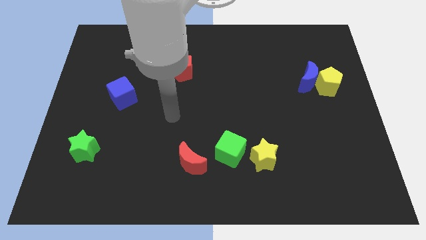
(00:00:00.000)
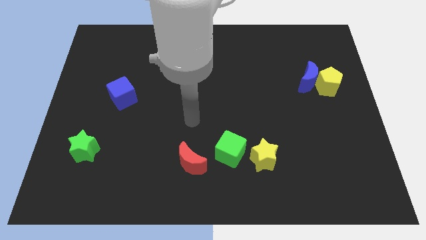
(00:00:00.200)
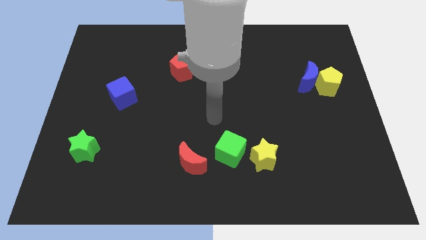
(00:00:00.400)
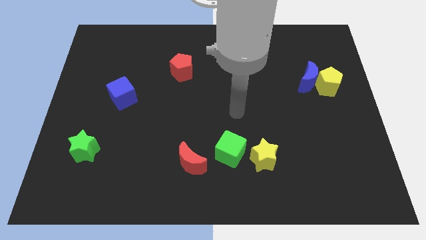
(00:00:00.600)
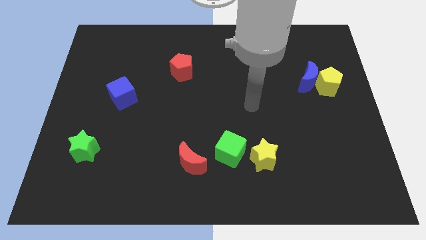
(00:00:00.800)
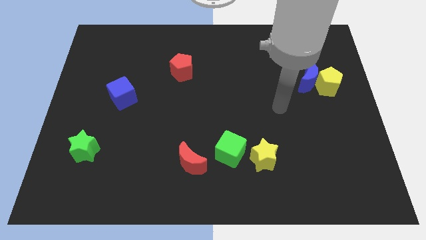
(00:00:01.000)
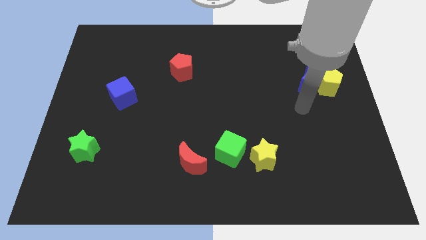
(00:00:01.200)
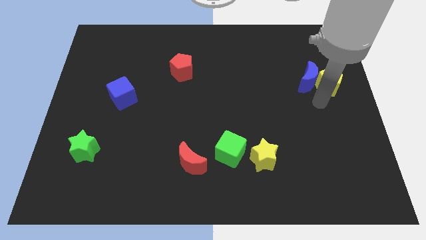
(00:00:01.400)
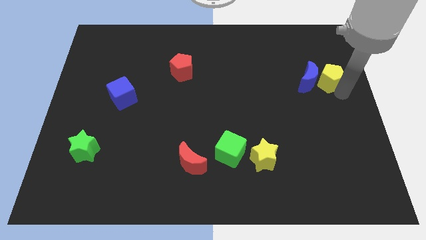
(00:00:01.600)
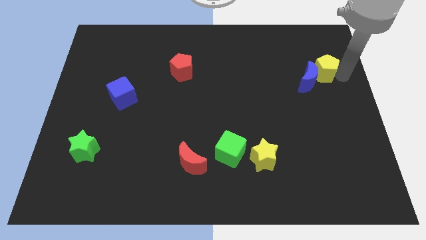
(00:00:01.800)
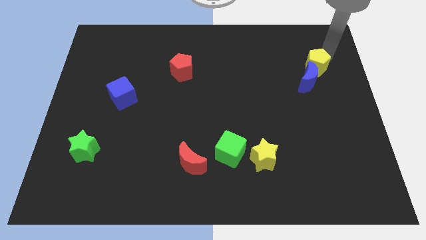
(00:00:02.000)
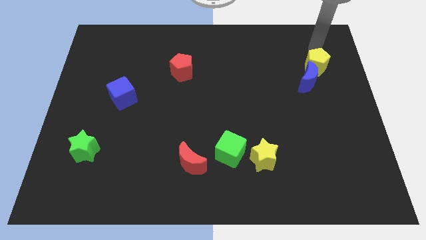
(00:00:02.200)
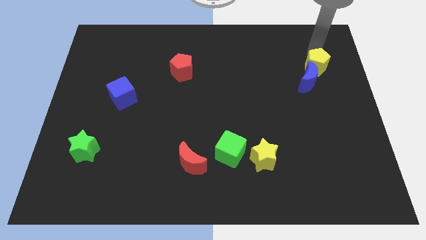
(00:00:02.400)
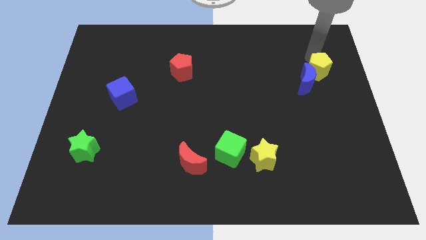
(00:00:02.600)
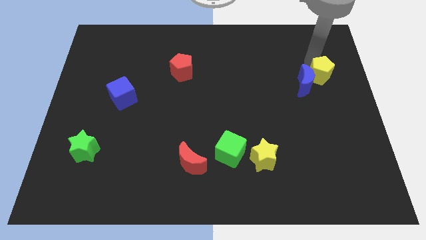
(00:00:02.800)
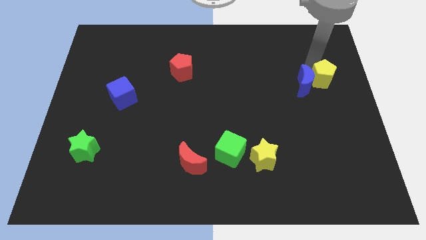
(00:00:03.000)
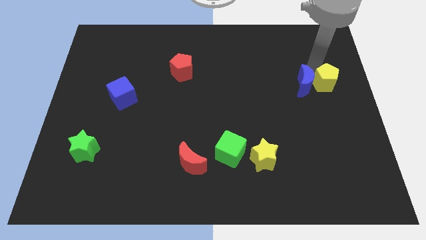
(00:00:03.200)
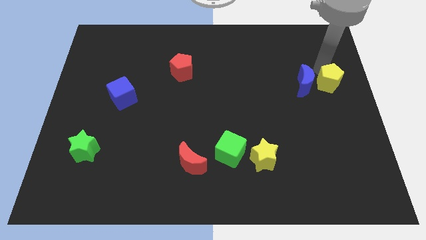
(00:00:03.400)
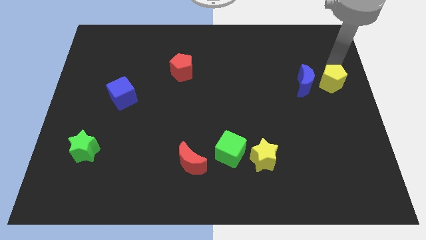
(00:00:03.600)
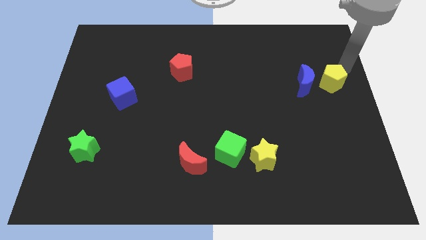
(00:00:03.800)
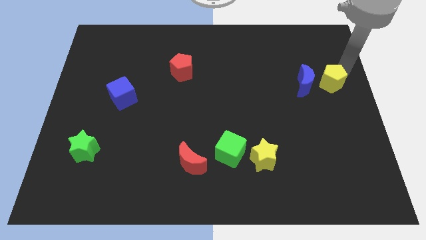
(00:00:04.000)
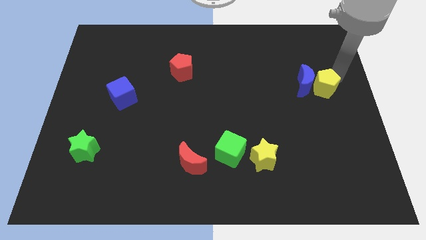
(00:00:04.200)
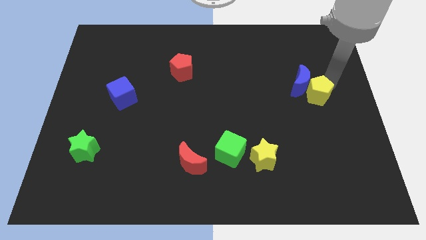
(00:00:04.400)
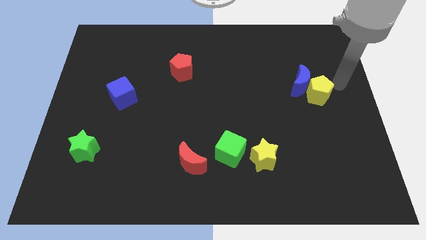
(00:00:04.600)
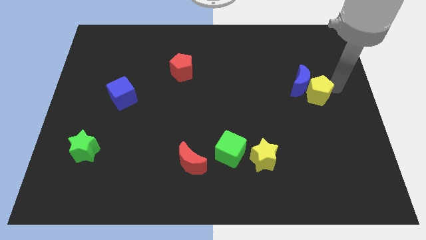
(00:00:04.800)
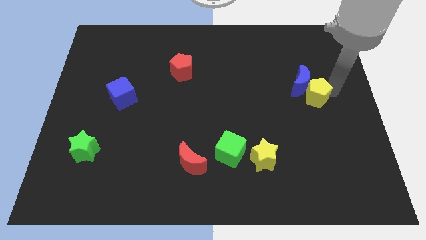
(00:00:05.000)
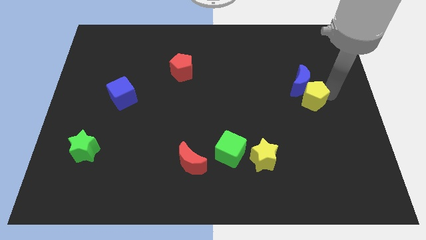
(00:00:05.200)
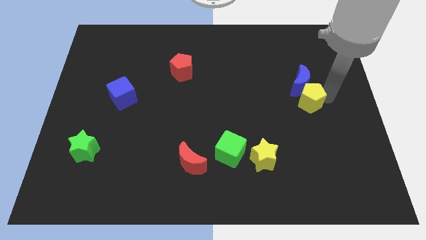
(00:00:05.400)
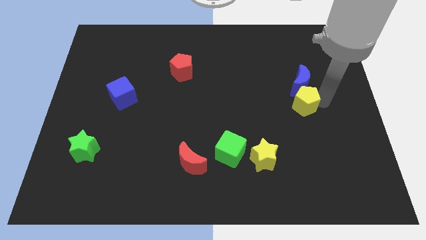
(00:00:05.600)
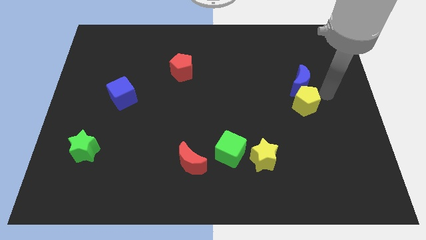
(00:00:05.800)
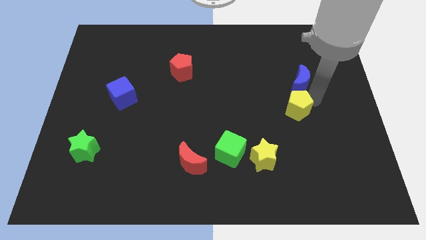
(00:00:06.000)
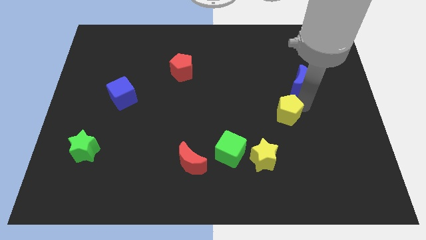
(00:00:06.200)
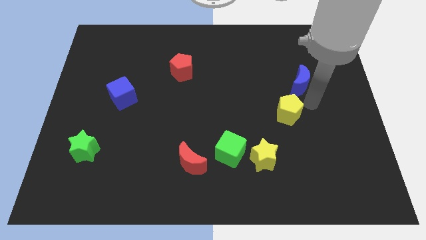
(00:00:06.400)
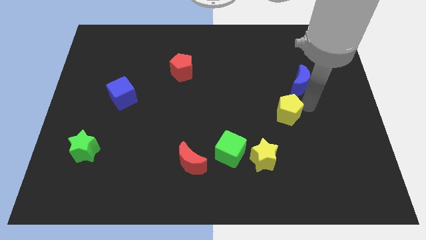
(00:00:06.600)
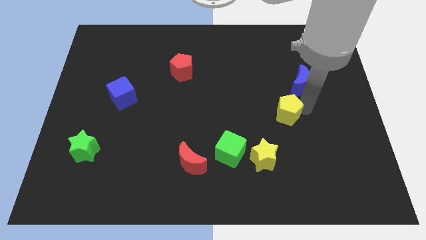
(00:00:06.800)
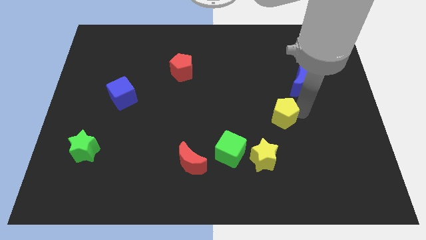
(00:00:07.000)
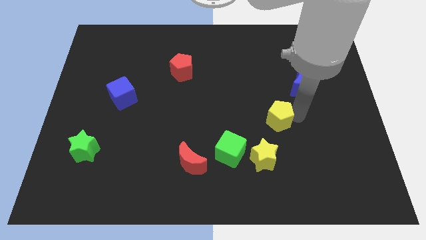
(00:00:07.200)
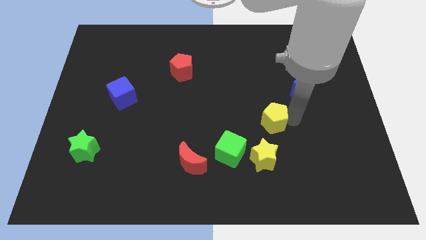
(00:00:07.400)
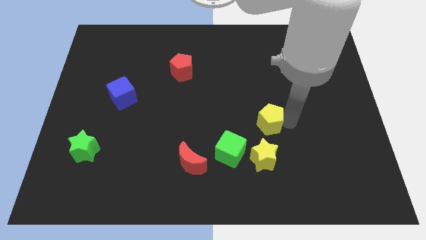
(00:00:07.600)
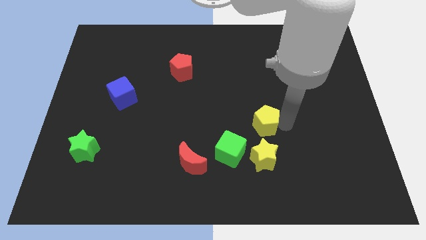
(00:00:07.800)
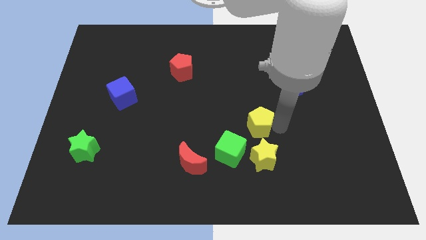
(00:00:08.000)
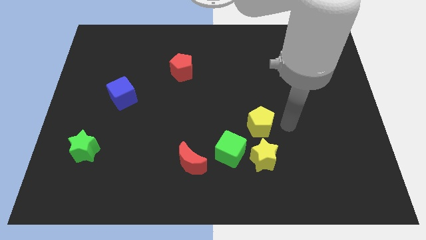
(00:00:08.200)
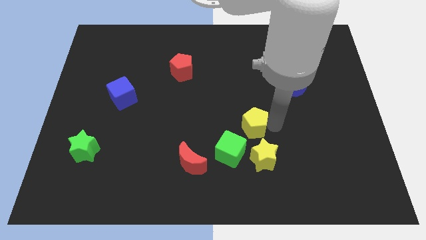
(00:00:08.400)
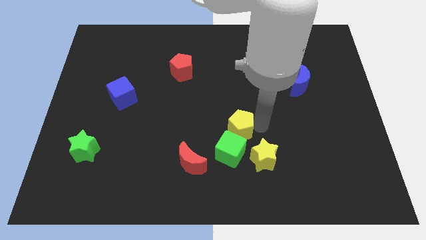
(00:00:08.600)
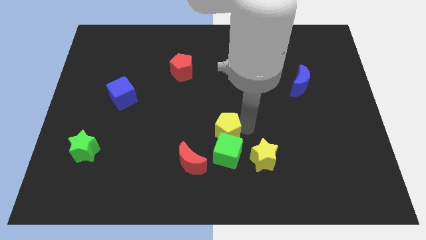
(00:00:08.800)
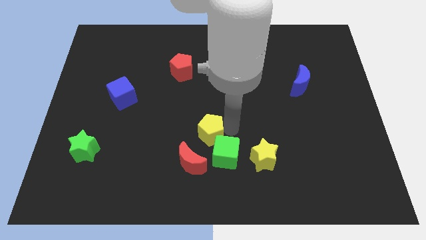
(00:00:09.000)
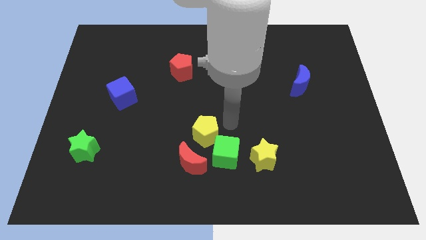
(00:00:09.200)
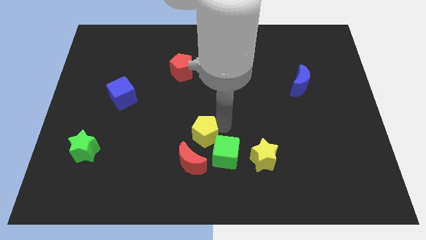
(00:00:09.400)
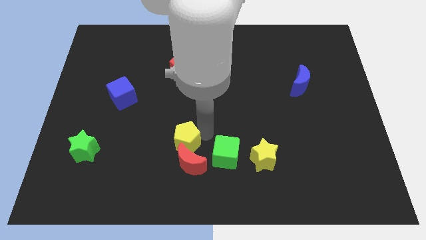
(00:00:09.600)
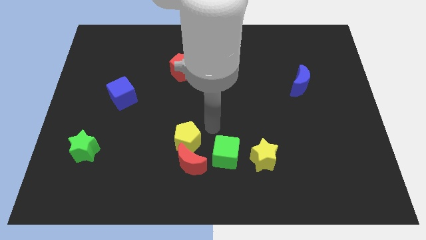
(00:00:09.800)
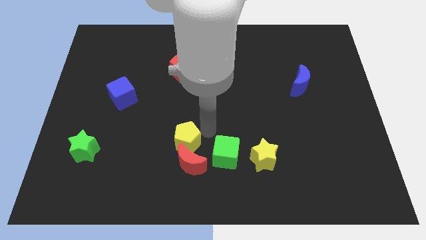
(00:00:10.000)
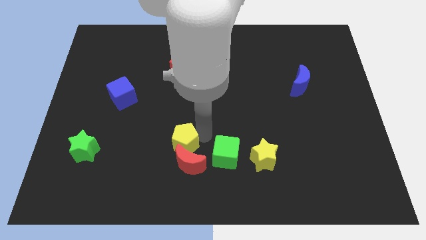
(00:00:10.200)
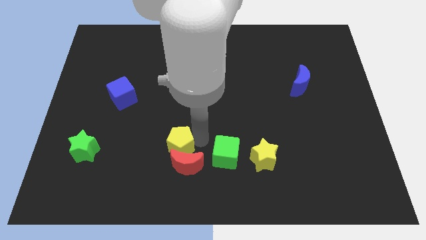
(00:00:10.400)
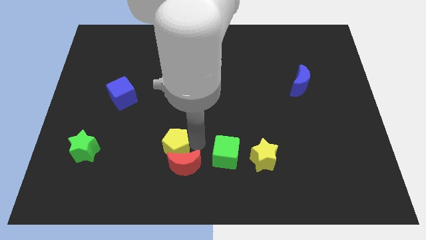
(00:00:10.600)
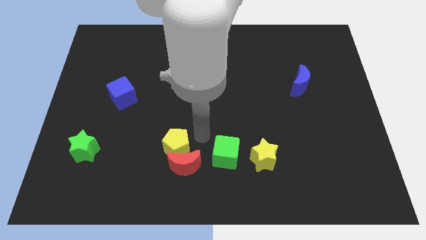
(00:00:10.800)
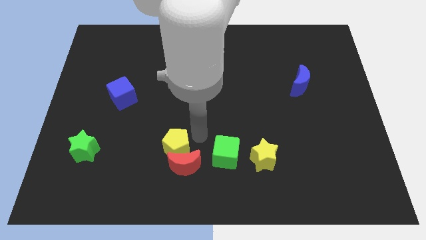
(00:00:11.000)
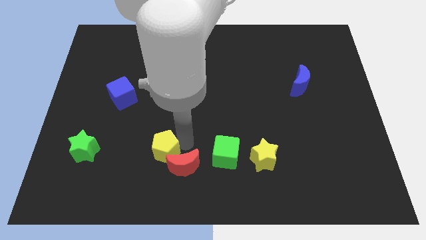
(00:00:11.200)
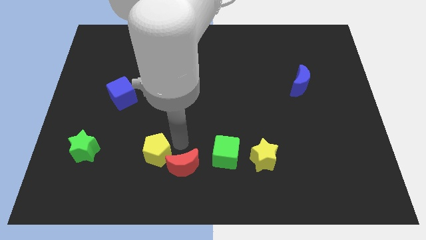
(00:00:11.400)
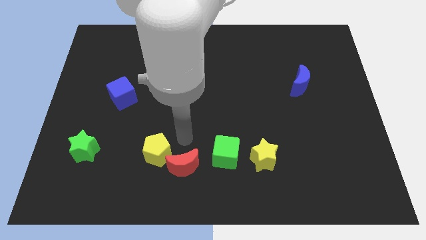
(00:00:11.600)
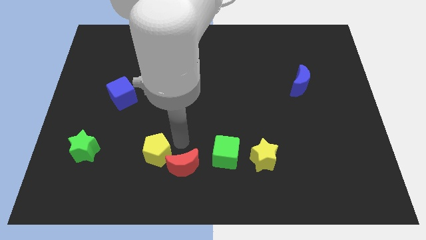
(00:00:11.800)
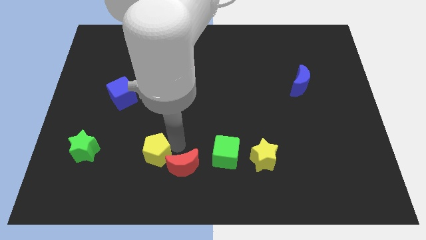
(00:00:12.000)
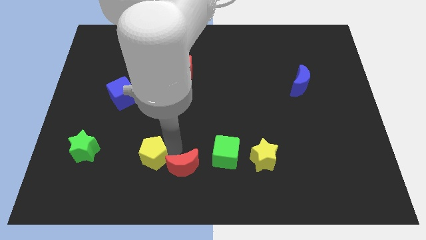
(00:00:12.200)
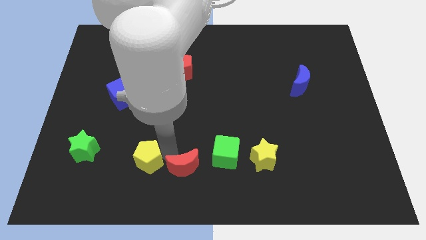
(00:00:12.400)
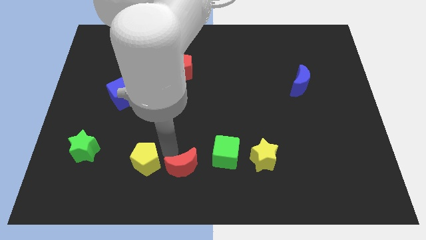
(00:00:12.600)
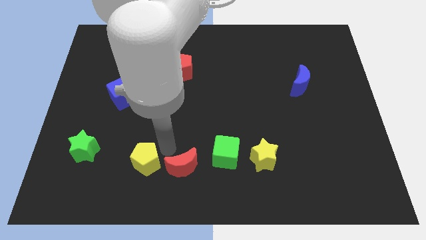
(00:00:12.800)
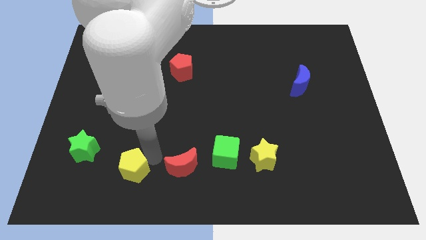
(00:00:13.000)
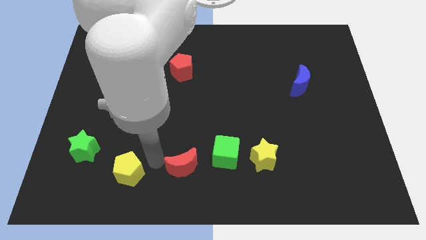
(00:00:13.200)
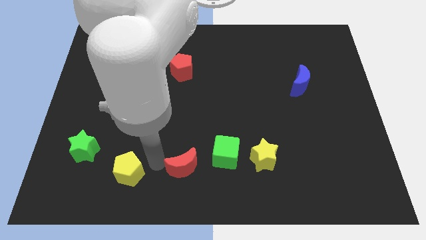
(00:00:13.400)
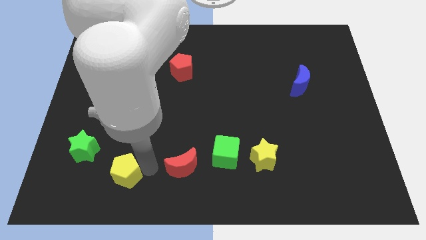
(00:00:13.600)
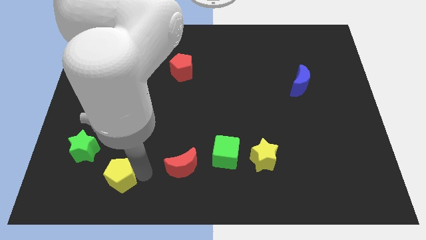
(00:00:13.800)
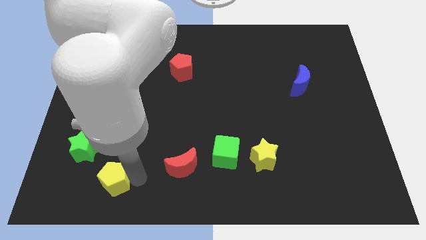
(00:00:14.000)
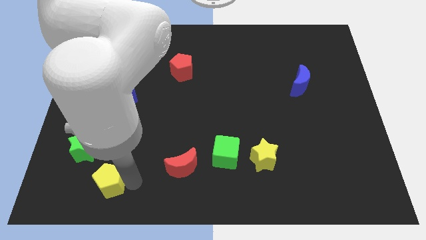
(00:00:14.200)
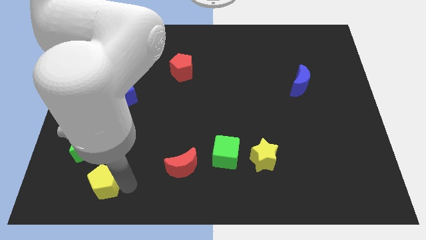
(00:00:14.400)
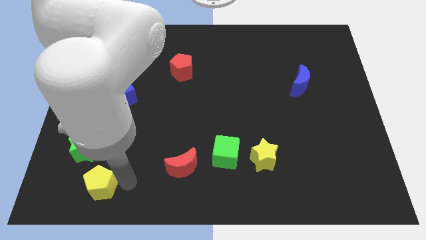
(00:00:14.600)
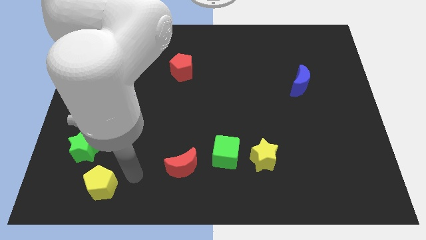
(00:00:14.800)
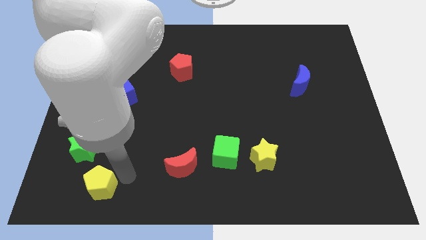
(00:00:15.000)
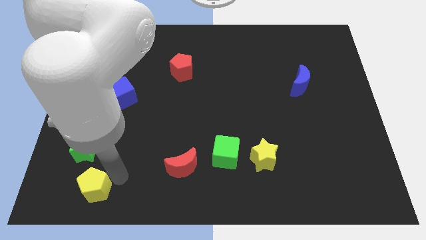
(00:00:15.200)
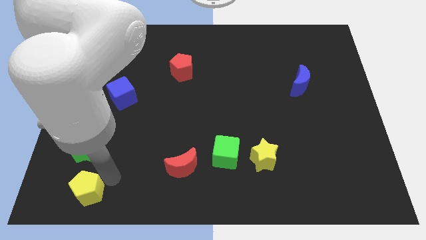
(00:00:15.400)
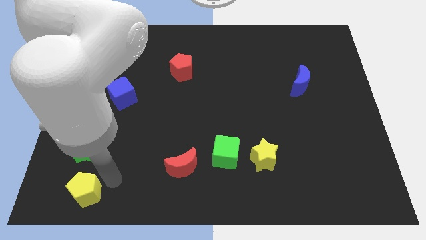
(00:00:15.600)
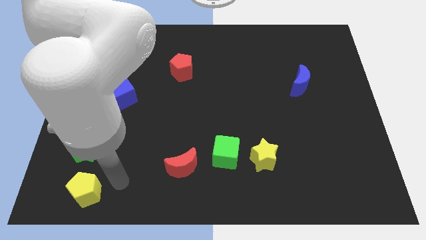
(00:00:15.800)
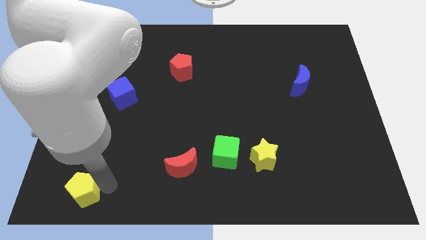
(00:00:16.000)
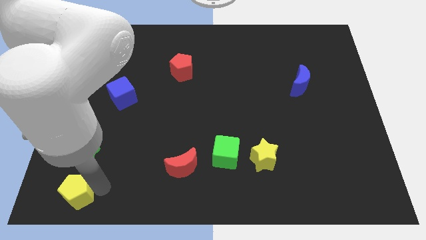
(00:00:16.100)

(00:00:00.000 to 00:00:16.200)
push the yellow pentagon to the bottom left
